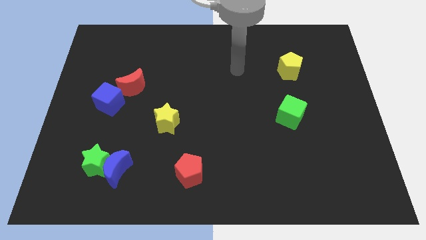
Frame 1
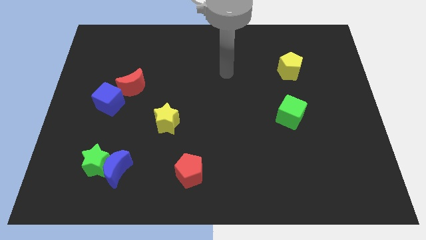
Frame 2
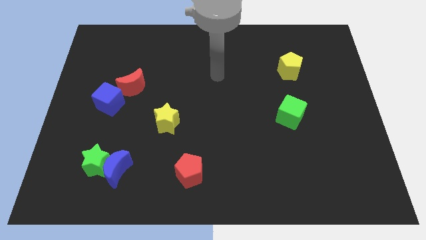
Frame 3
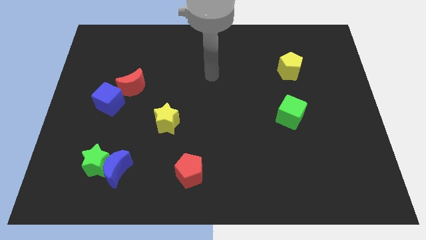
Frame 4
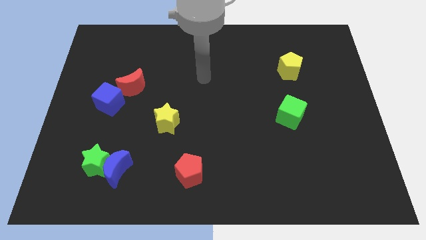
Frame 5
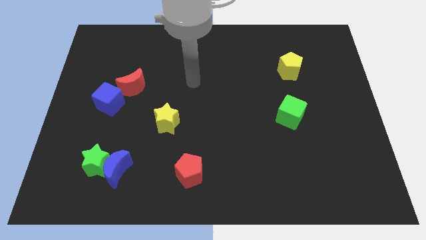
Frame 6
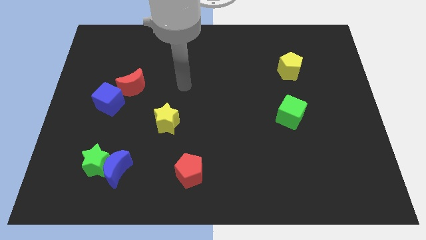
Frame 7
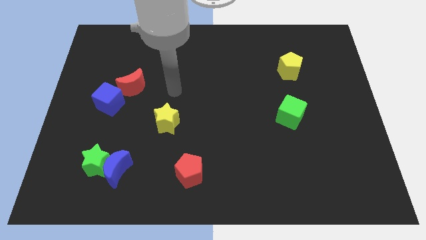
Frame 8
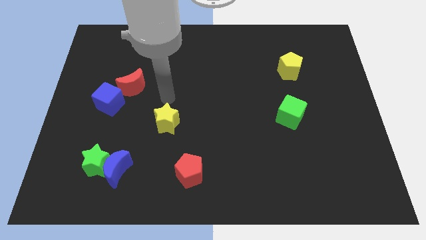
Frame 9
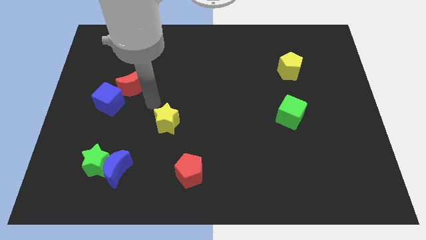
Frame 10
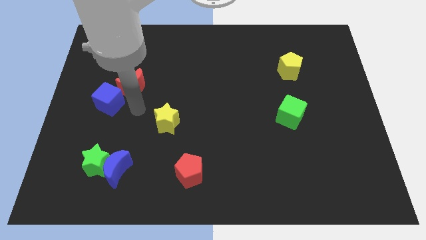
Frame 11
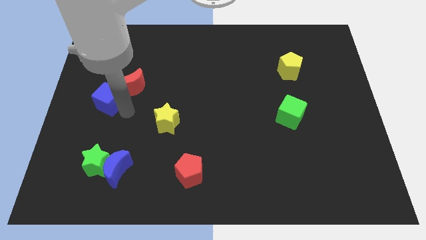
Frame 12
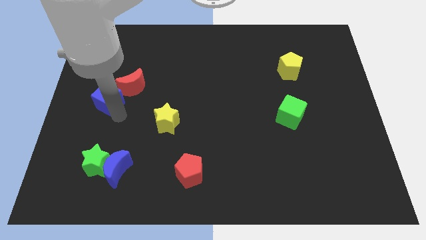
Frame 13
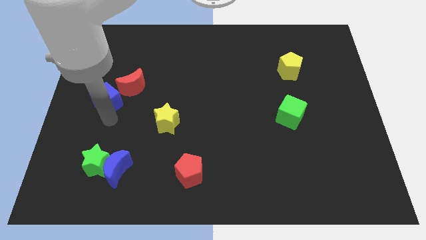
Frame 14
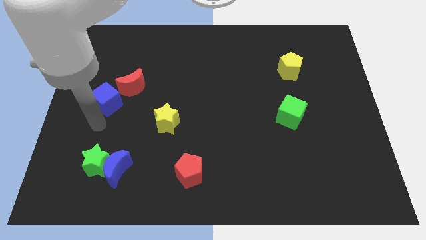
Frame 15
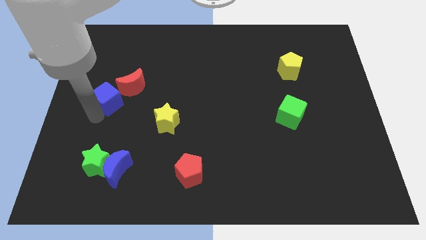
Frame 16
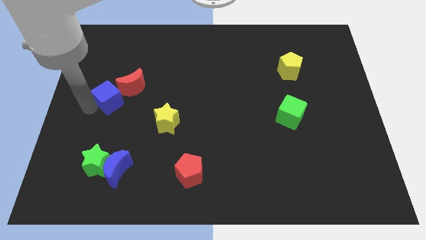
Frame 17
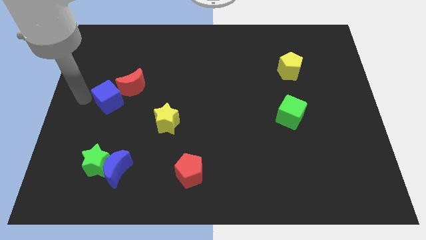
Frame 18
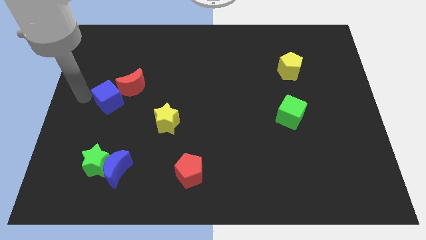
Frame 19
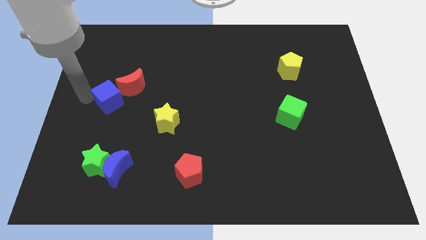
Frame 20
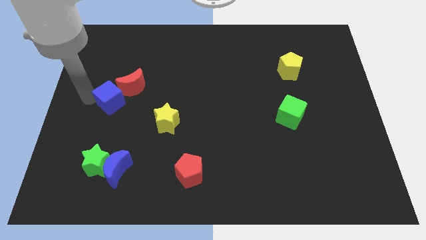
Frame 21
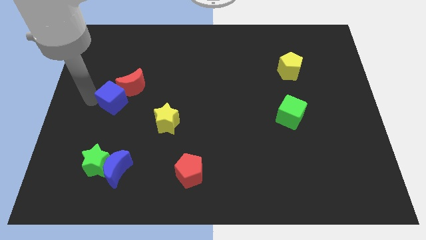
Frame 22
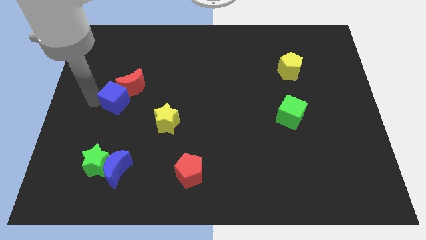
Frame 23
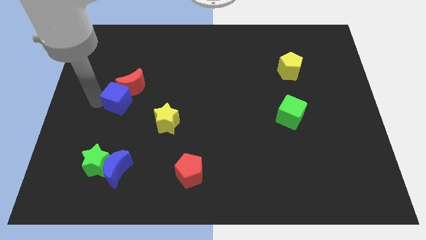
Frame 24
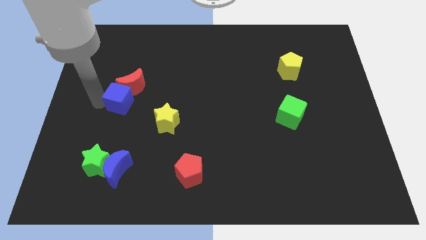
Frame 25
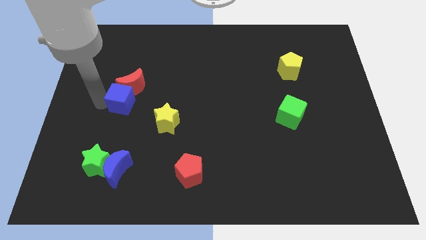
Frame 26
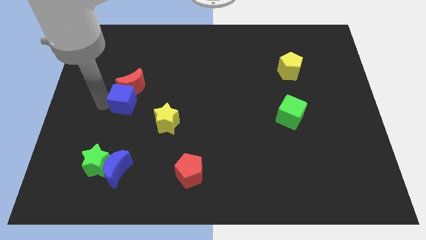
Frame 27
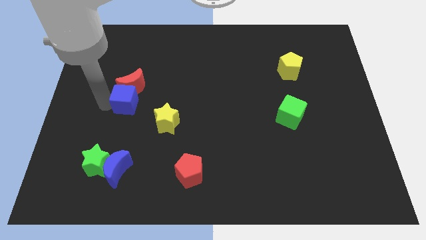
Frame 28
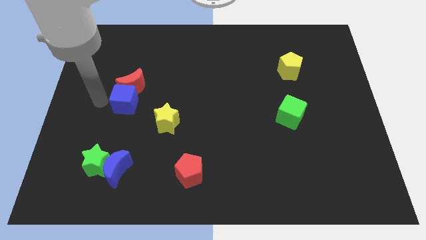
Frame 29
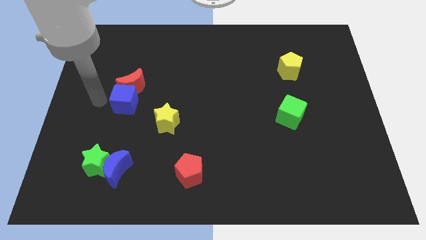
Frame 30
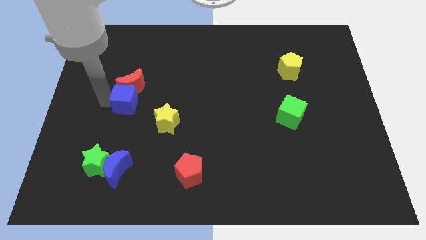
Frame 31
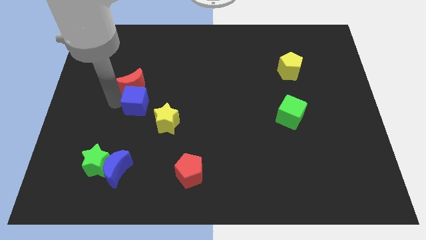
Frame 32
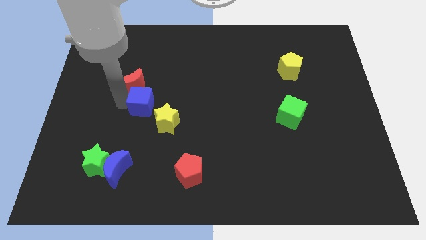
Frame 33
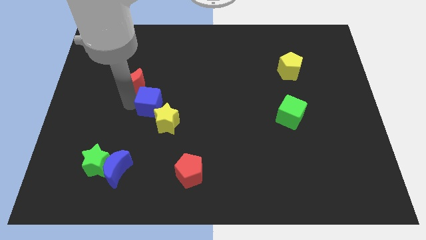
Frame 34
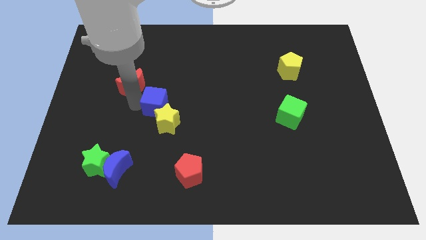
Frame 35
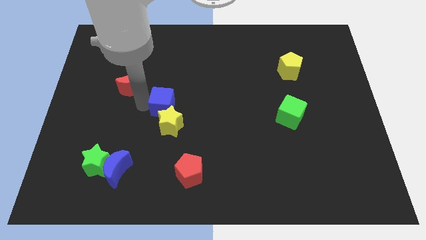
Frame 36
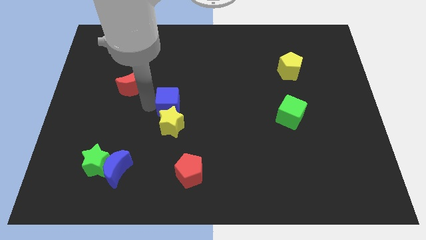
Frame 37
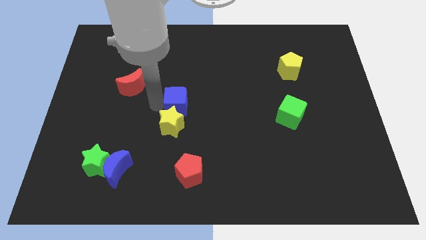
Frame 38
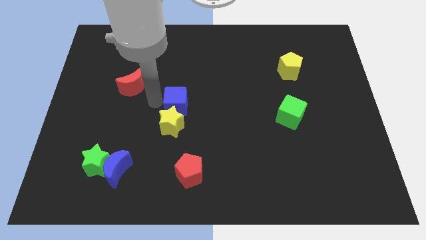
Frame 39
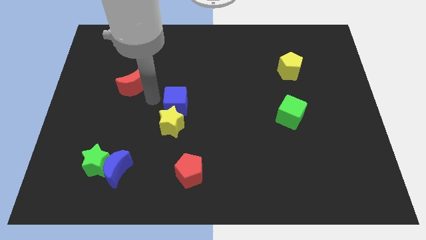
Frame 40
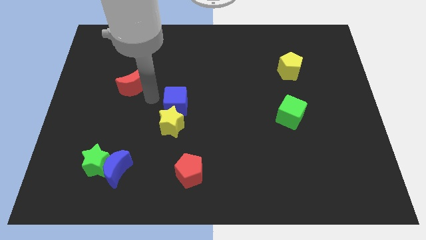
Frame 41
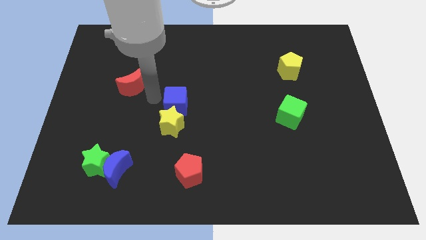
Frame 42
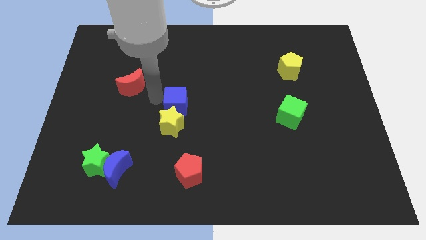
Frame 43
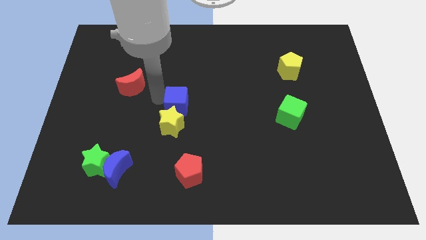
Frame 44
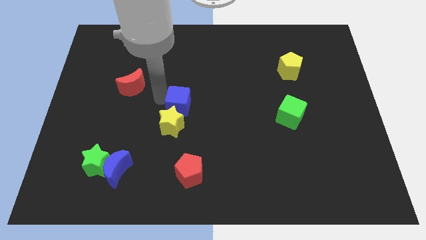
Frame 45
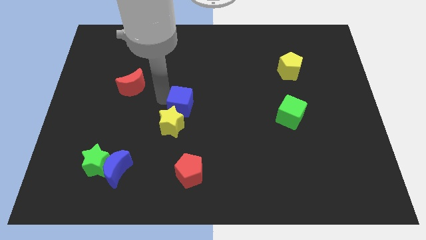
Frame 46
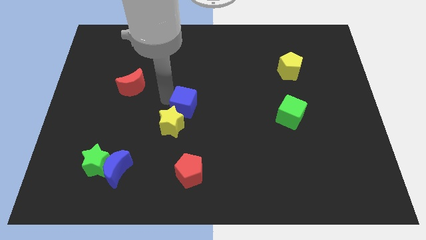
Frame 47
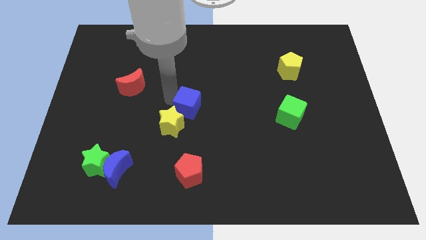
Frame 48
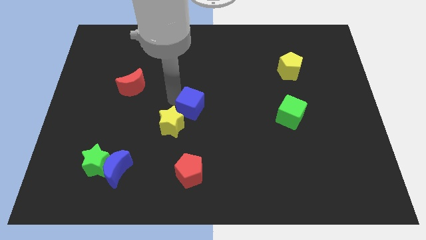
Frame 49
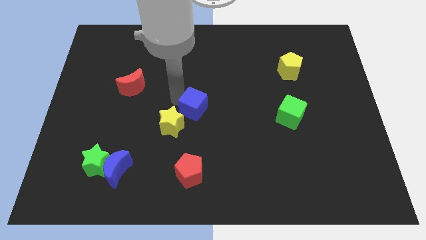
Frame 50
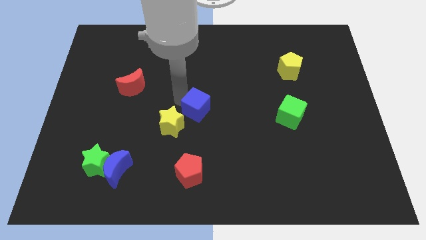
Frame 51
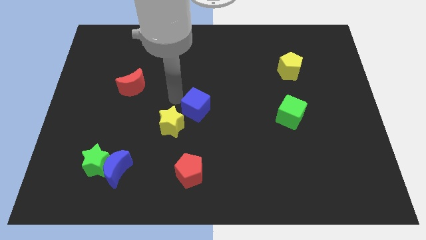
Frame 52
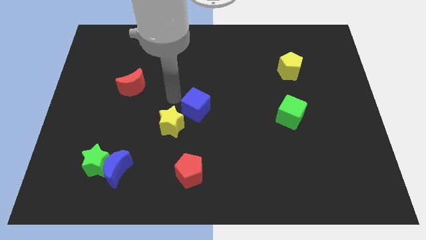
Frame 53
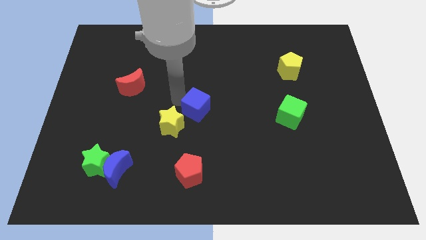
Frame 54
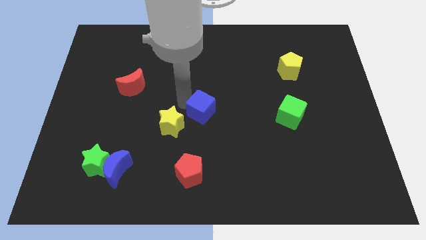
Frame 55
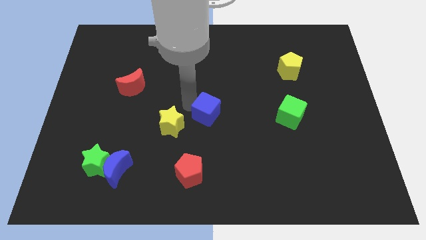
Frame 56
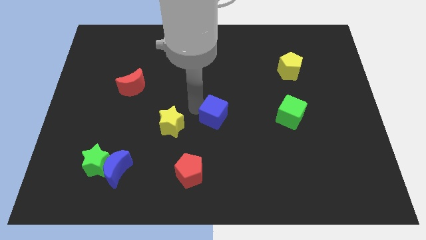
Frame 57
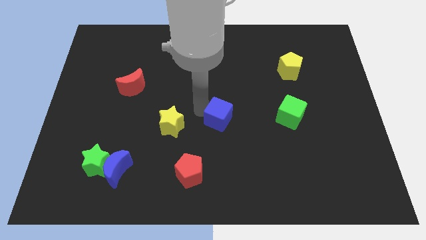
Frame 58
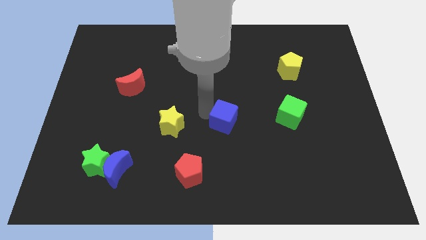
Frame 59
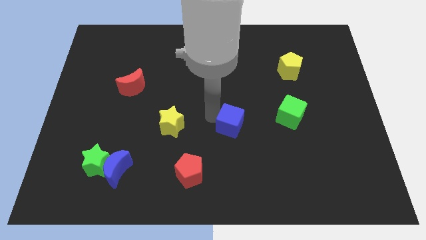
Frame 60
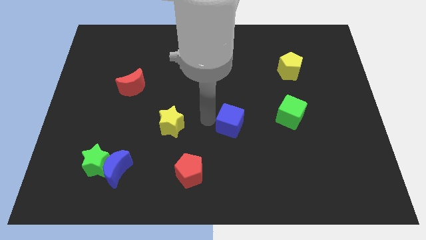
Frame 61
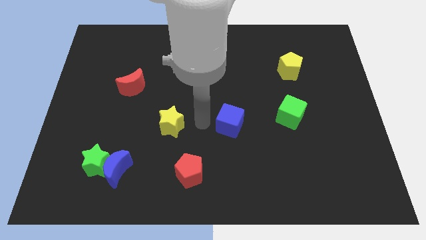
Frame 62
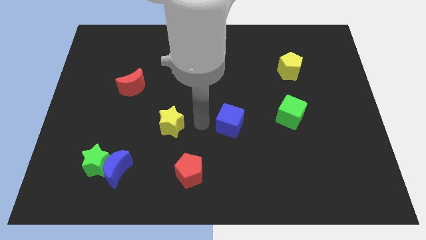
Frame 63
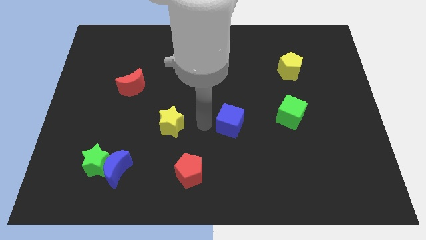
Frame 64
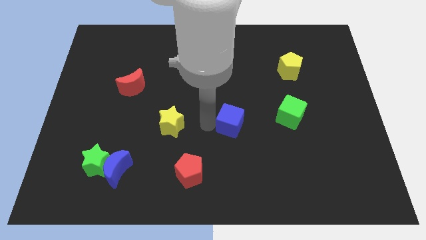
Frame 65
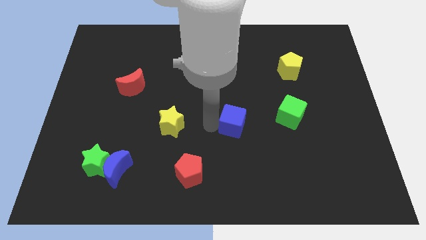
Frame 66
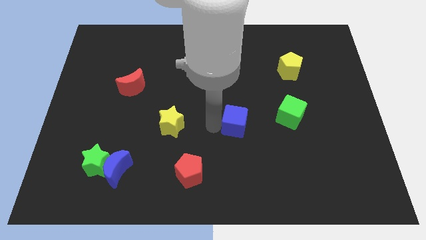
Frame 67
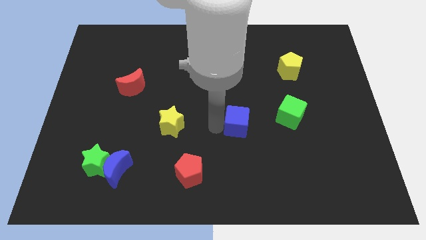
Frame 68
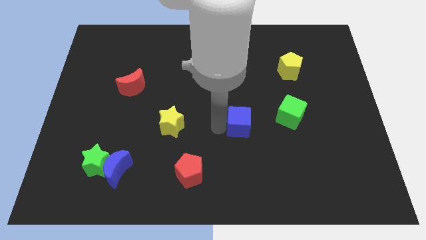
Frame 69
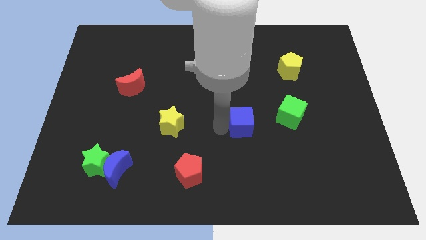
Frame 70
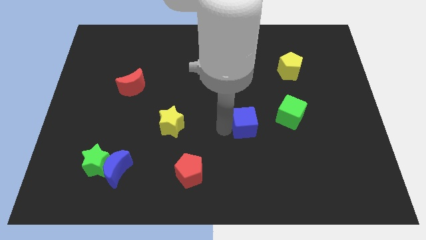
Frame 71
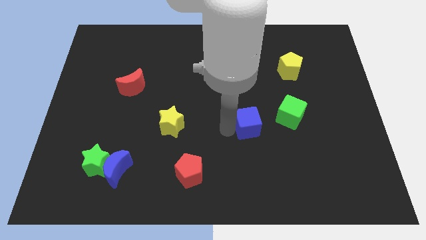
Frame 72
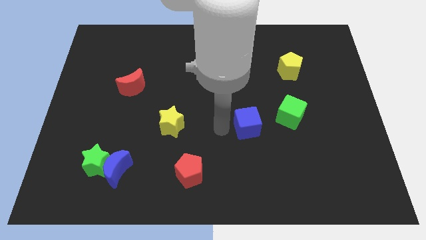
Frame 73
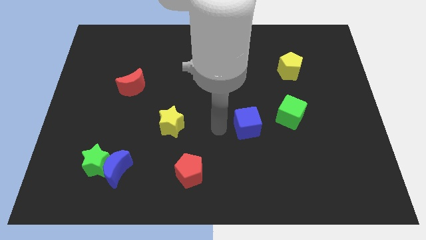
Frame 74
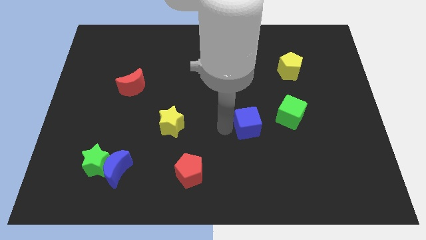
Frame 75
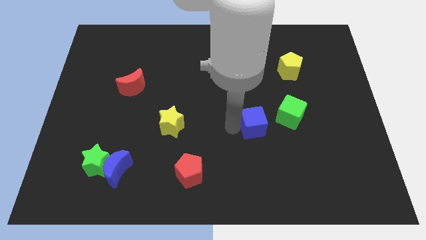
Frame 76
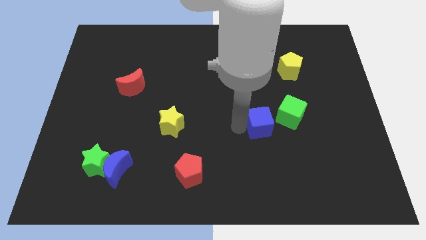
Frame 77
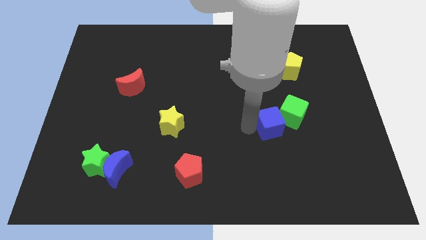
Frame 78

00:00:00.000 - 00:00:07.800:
slide the blue cube next to the green cube
